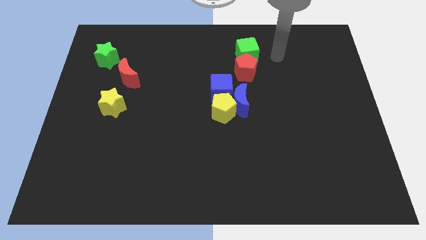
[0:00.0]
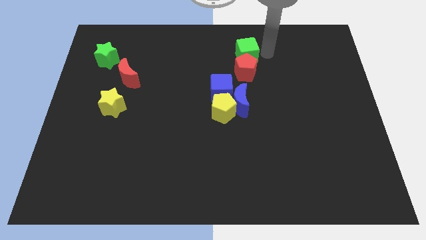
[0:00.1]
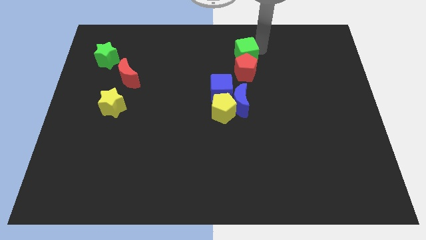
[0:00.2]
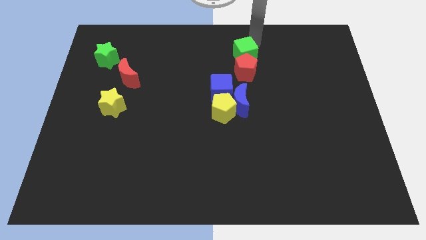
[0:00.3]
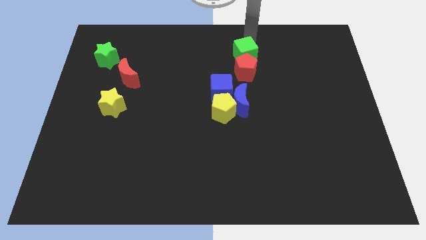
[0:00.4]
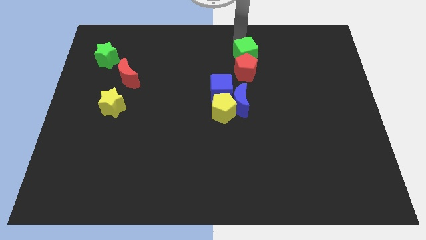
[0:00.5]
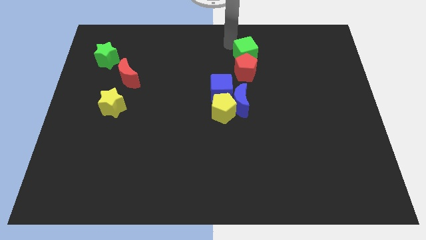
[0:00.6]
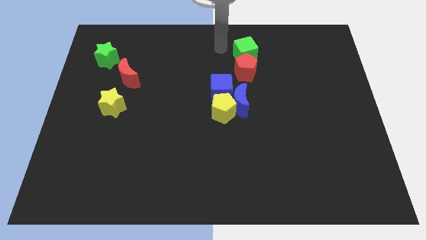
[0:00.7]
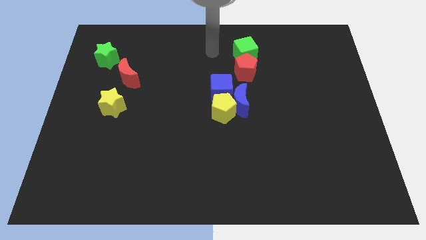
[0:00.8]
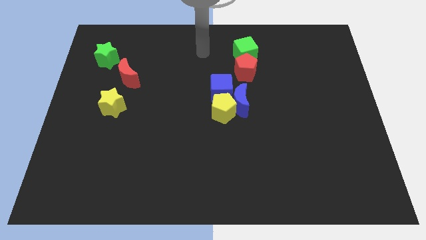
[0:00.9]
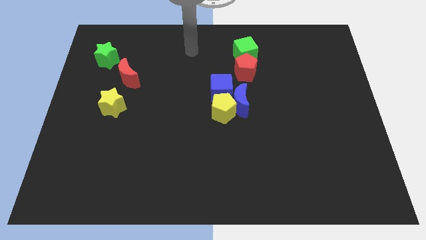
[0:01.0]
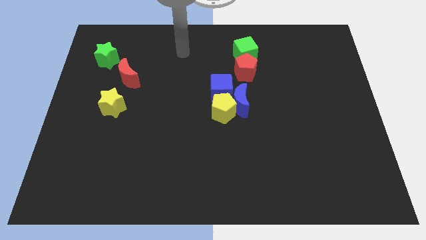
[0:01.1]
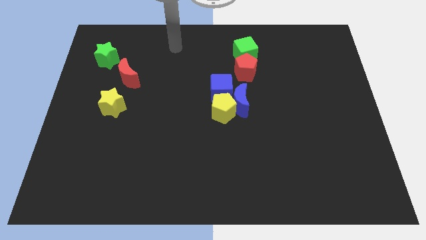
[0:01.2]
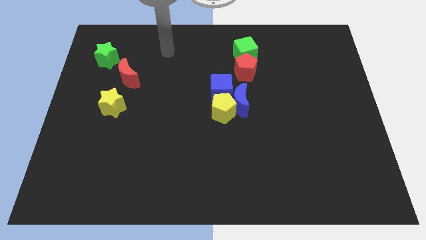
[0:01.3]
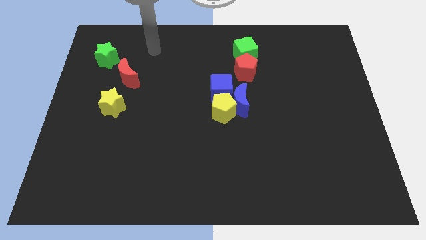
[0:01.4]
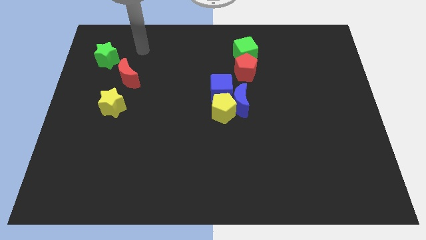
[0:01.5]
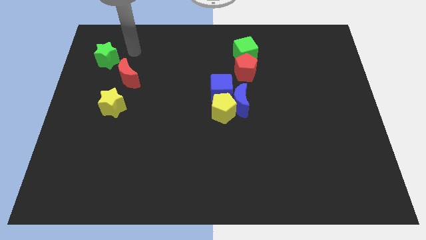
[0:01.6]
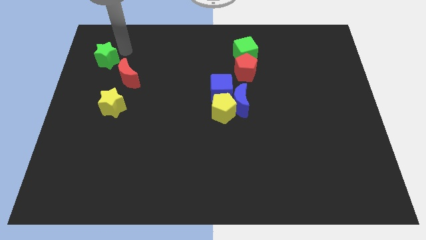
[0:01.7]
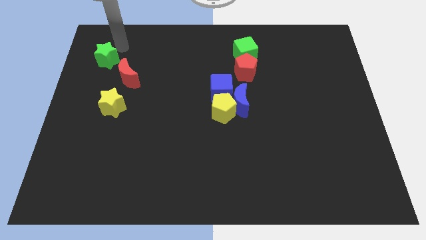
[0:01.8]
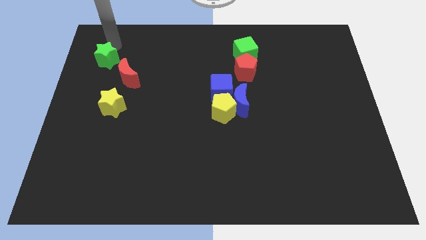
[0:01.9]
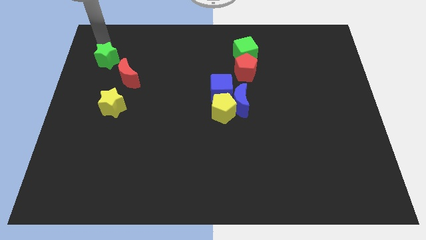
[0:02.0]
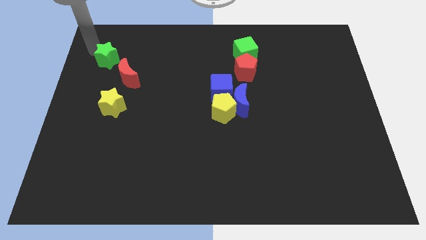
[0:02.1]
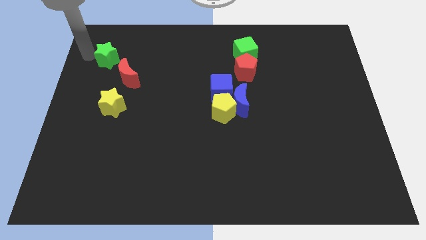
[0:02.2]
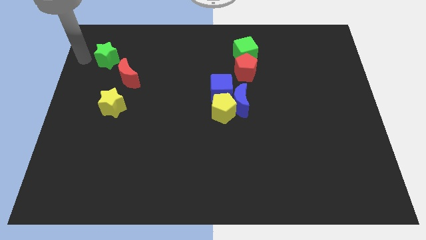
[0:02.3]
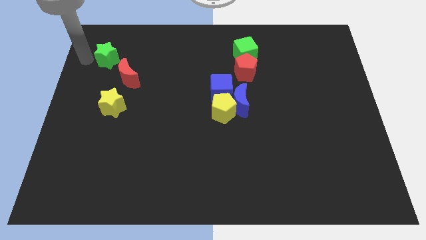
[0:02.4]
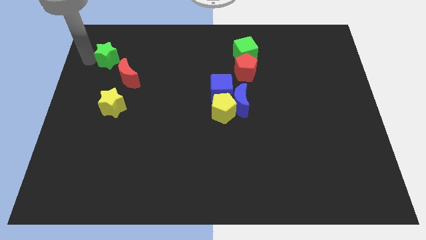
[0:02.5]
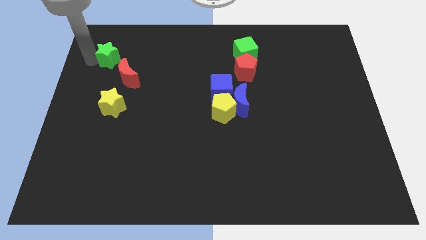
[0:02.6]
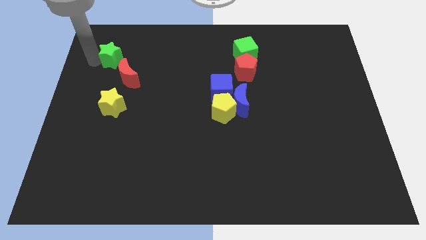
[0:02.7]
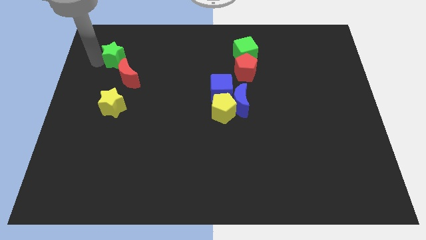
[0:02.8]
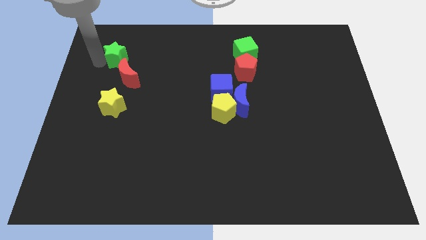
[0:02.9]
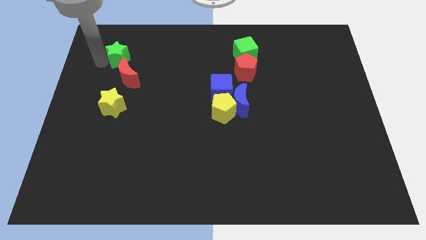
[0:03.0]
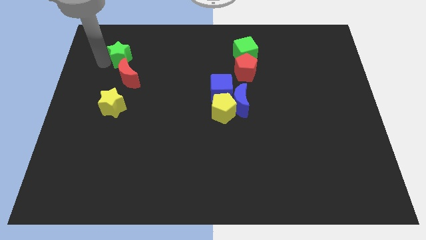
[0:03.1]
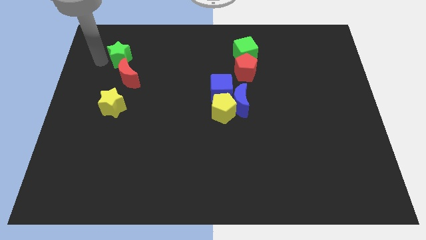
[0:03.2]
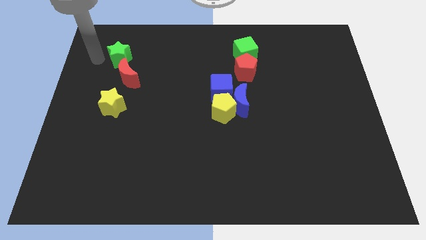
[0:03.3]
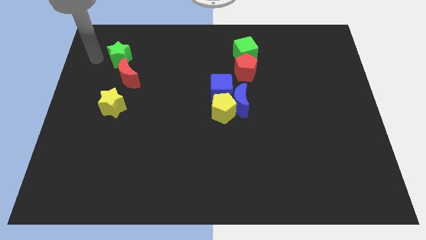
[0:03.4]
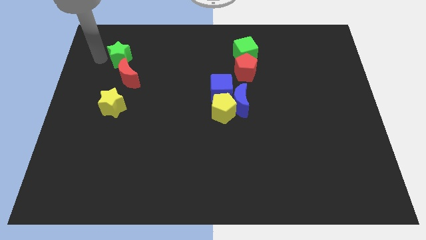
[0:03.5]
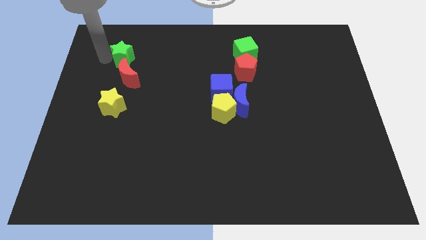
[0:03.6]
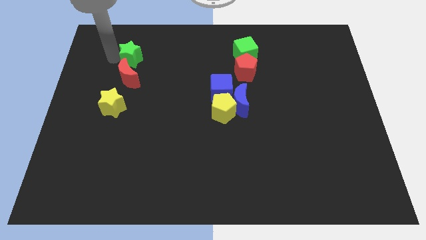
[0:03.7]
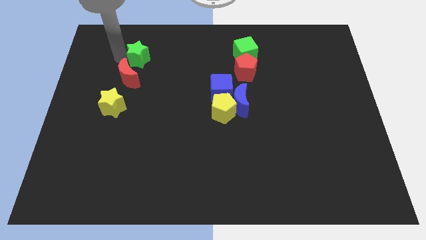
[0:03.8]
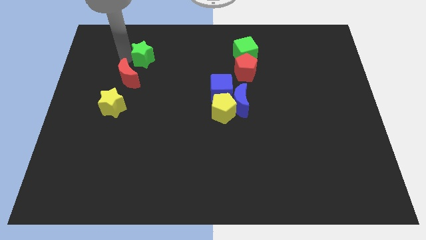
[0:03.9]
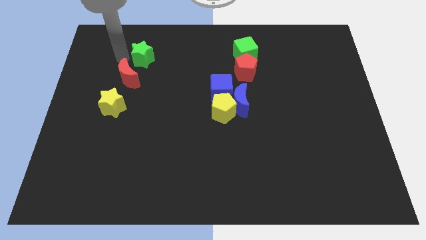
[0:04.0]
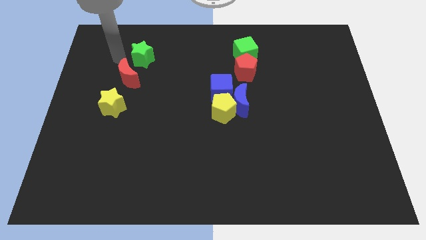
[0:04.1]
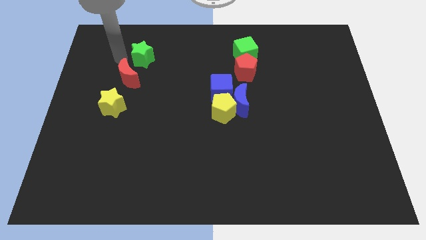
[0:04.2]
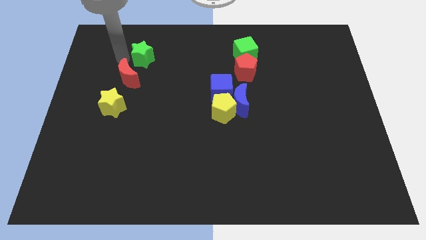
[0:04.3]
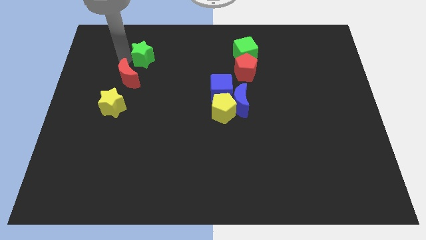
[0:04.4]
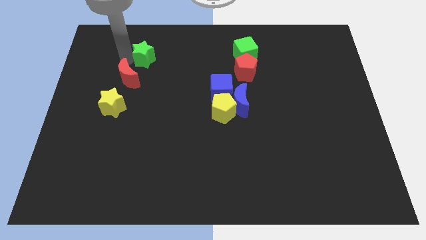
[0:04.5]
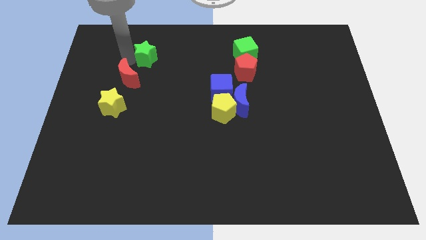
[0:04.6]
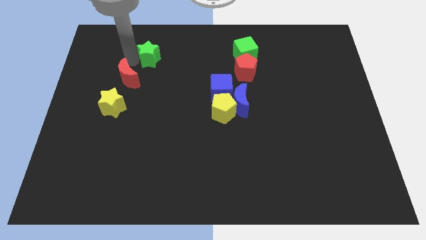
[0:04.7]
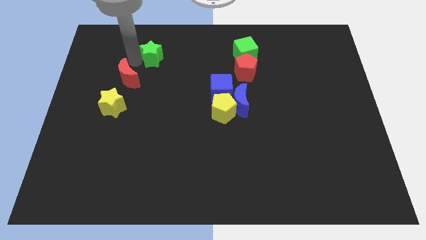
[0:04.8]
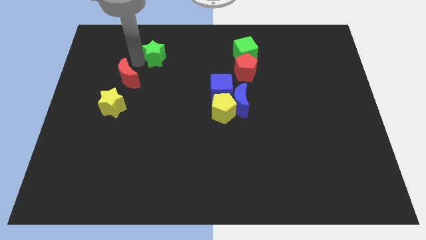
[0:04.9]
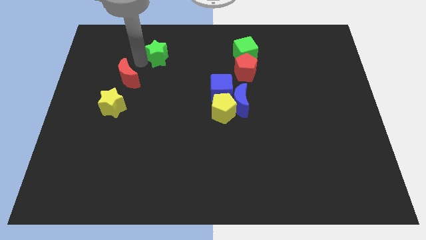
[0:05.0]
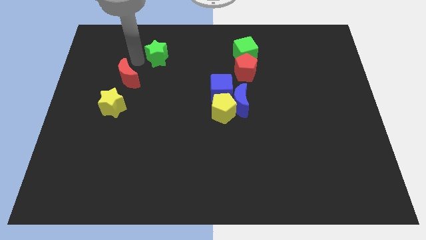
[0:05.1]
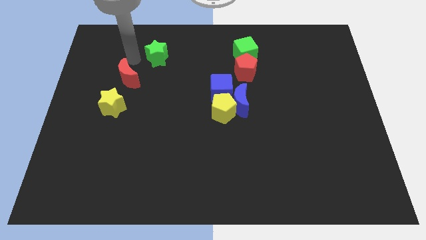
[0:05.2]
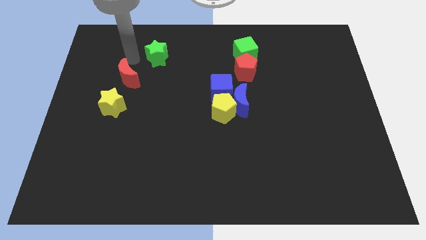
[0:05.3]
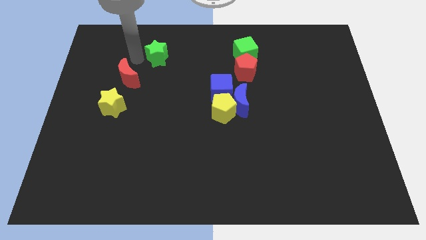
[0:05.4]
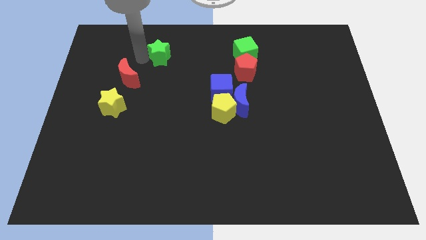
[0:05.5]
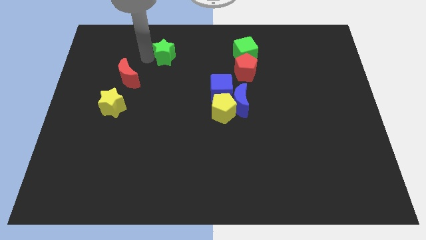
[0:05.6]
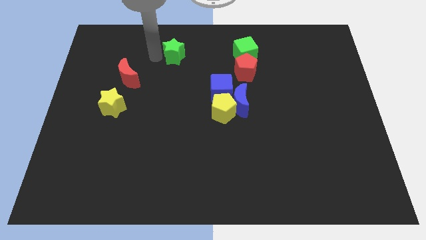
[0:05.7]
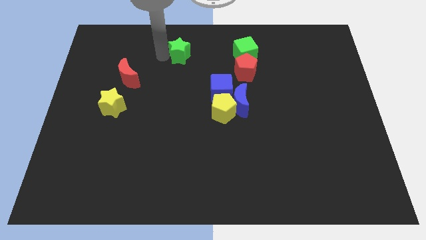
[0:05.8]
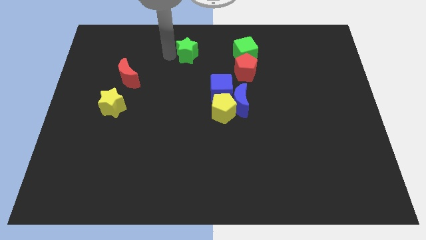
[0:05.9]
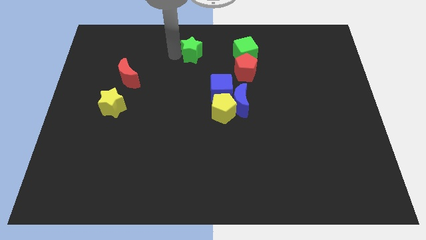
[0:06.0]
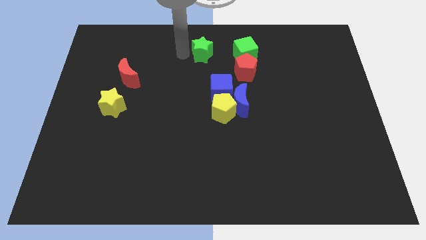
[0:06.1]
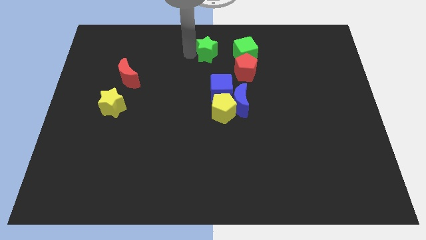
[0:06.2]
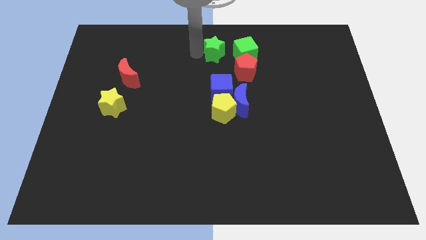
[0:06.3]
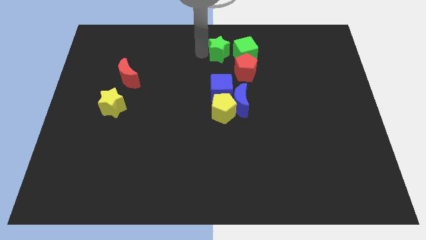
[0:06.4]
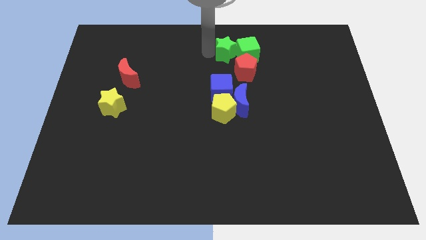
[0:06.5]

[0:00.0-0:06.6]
push the green star next to the green cube

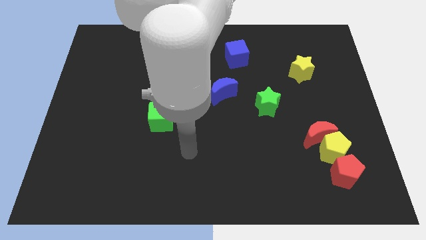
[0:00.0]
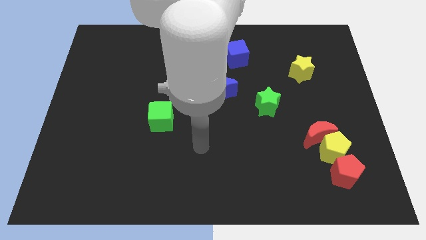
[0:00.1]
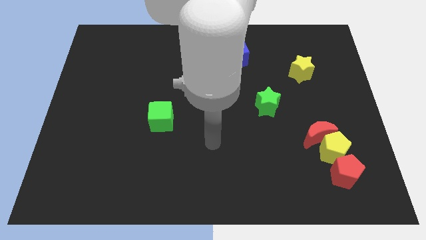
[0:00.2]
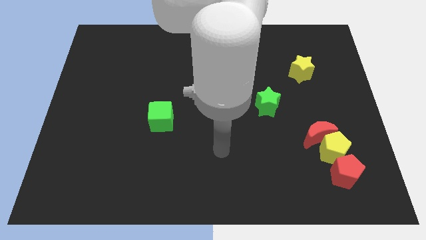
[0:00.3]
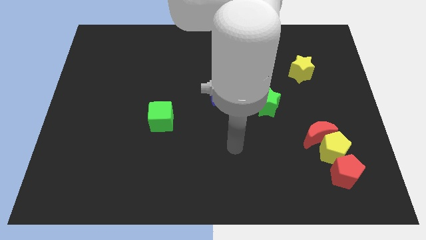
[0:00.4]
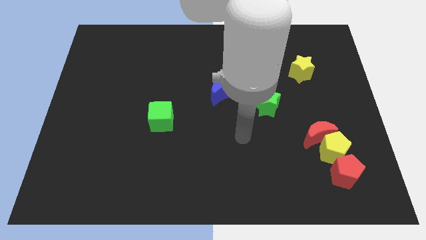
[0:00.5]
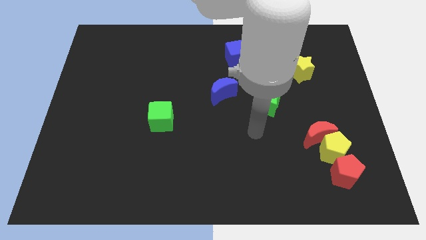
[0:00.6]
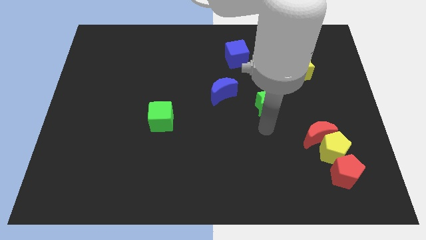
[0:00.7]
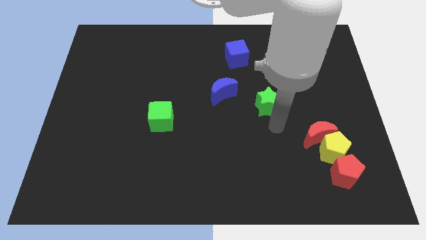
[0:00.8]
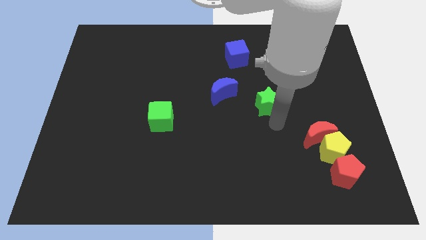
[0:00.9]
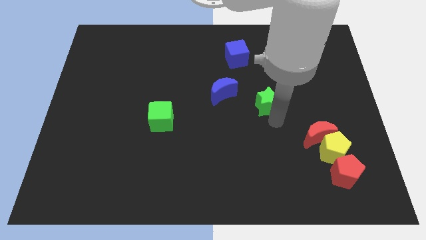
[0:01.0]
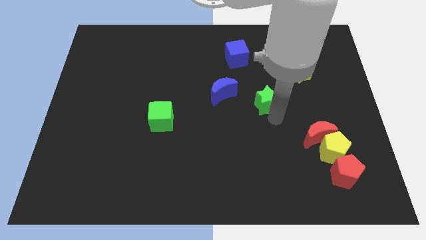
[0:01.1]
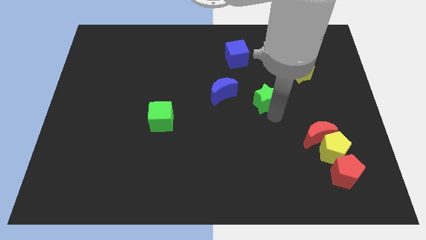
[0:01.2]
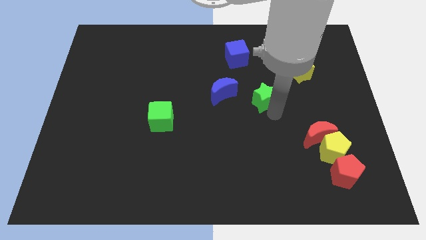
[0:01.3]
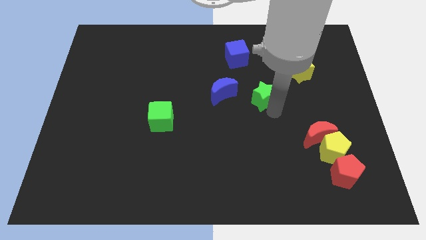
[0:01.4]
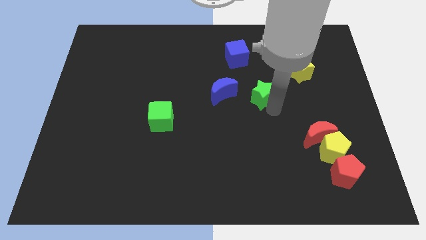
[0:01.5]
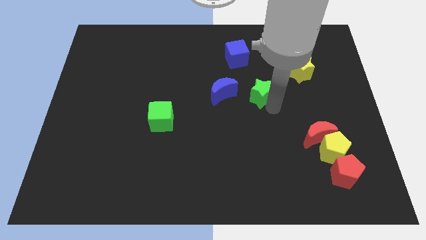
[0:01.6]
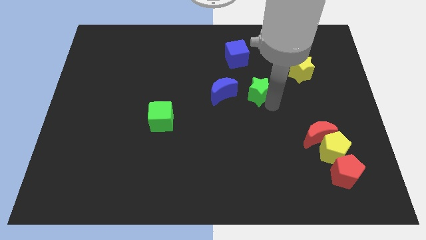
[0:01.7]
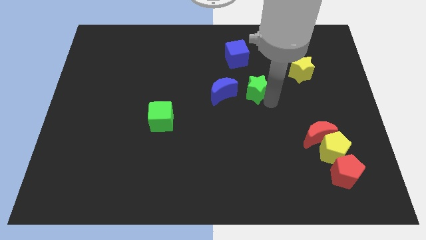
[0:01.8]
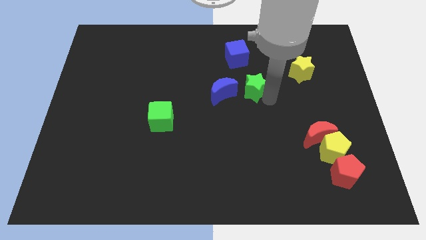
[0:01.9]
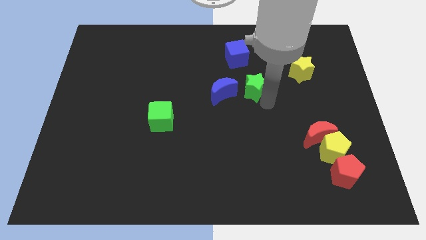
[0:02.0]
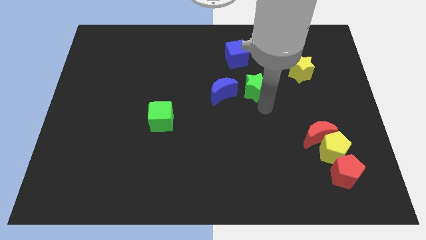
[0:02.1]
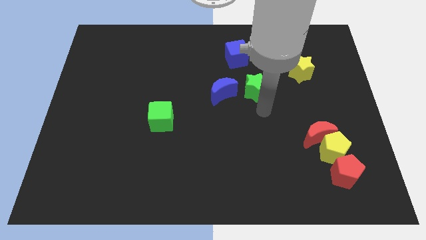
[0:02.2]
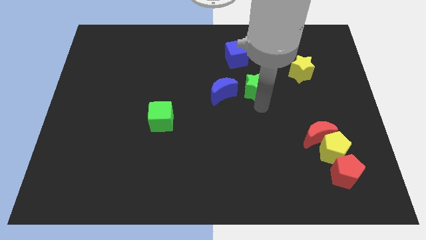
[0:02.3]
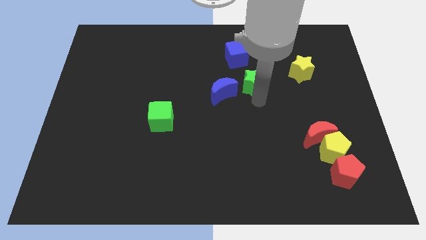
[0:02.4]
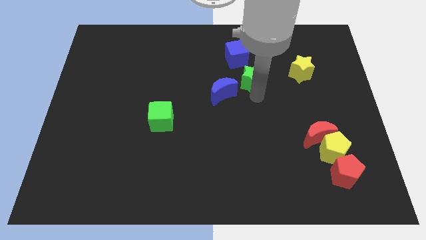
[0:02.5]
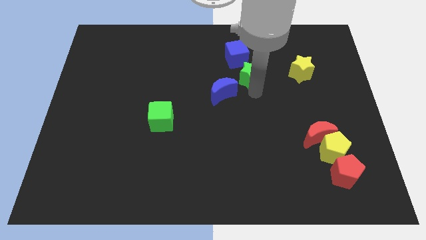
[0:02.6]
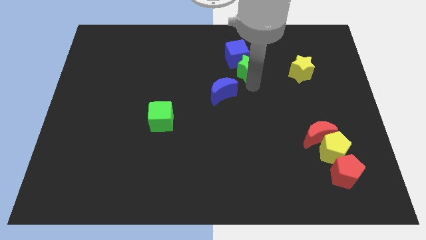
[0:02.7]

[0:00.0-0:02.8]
push the green star close to the blue cube
